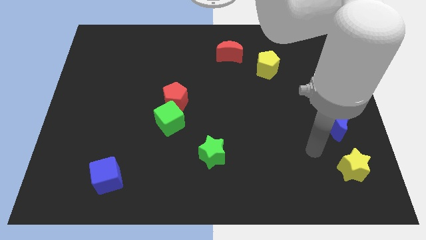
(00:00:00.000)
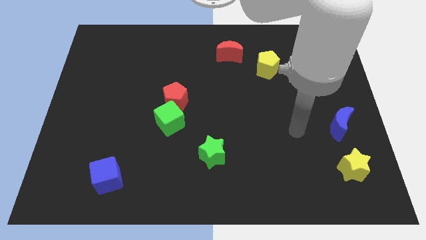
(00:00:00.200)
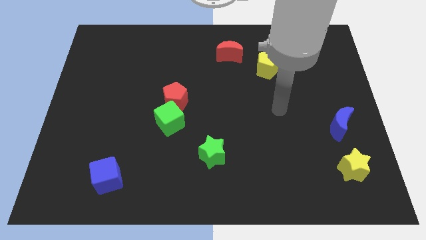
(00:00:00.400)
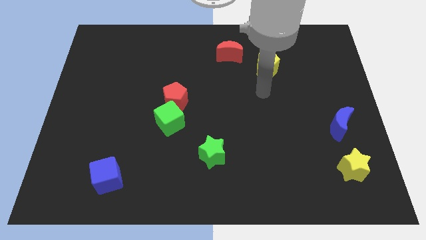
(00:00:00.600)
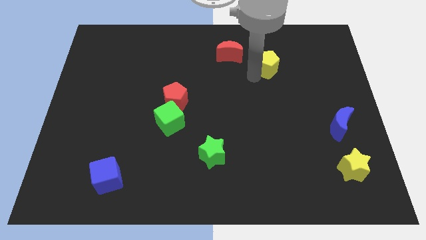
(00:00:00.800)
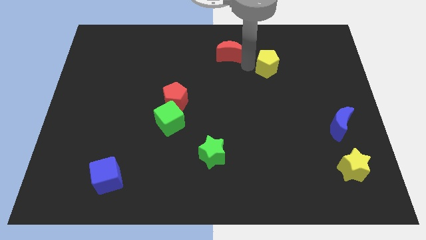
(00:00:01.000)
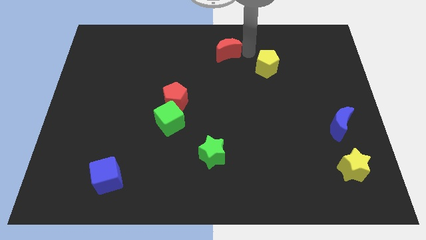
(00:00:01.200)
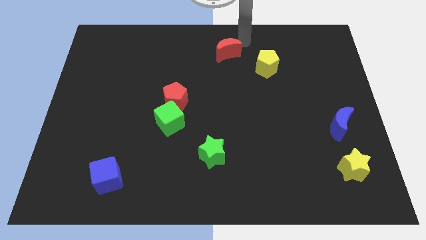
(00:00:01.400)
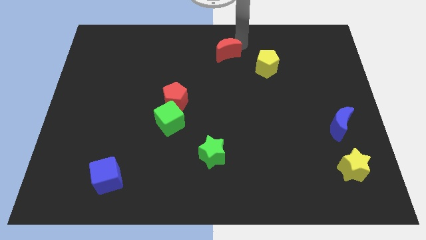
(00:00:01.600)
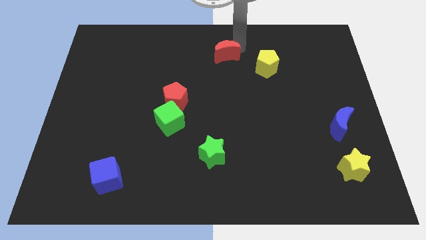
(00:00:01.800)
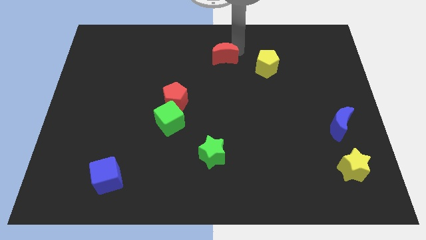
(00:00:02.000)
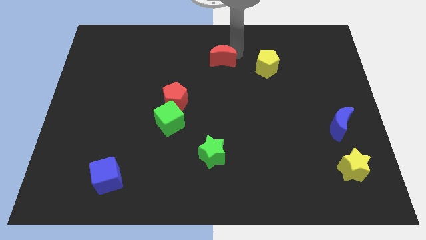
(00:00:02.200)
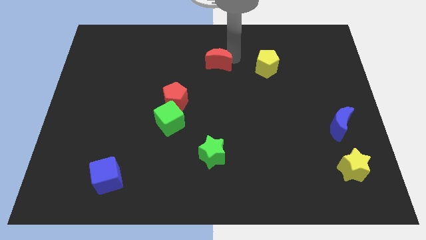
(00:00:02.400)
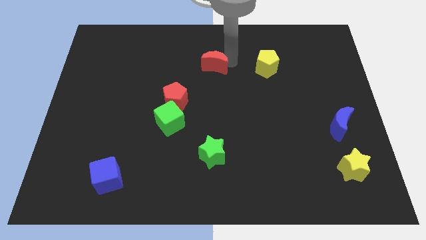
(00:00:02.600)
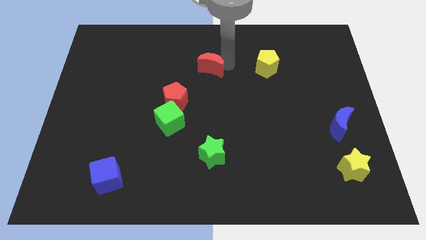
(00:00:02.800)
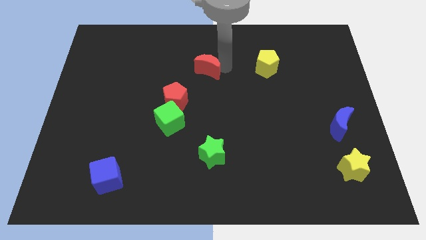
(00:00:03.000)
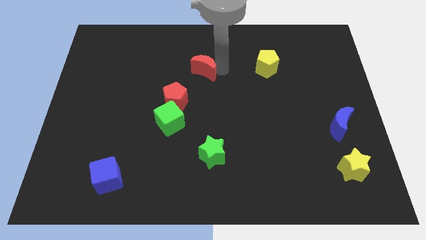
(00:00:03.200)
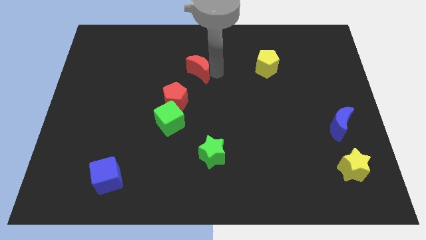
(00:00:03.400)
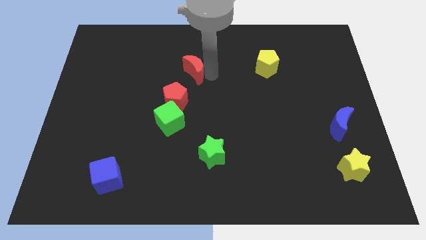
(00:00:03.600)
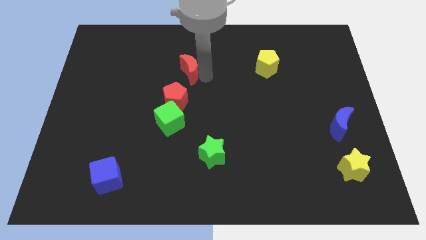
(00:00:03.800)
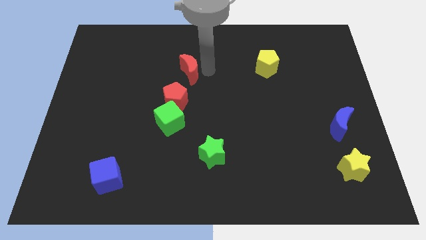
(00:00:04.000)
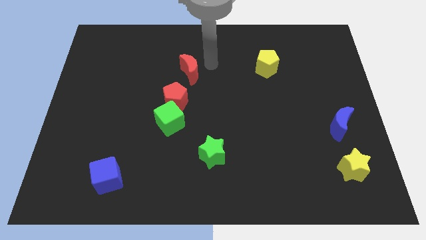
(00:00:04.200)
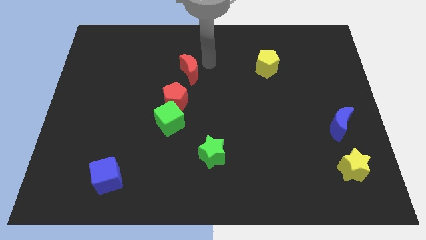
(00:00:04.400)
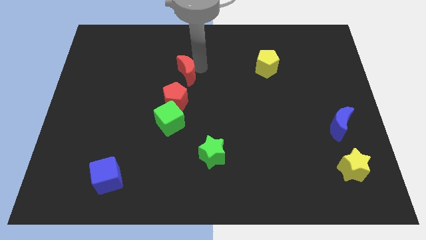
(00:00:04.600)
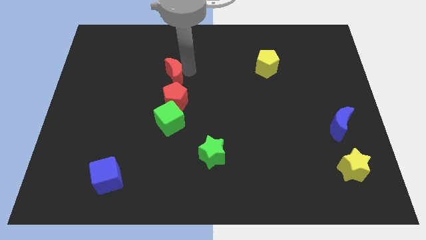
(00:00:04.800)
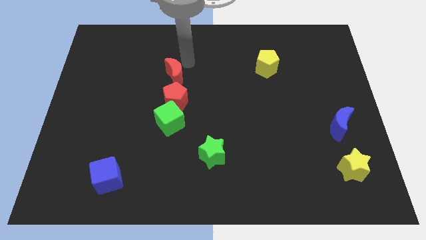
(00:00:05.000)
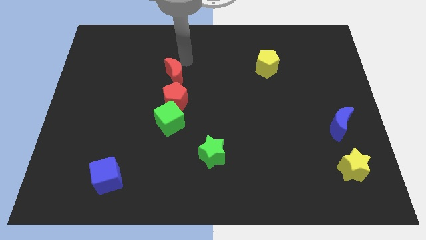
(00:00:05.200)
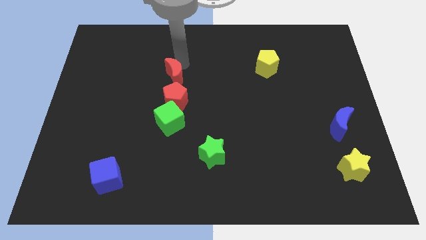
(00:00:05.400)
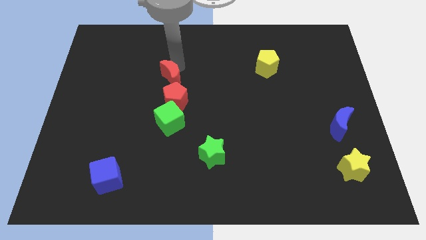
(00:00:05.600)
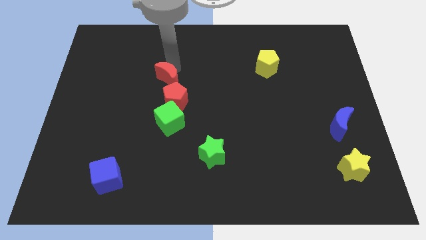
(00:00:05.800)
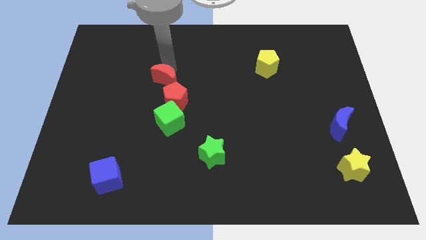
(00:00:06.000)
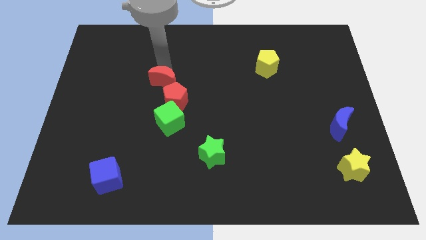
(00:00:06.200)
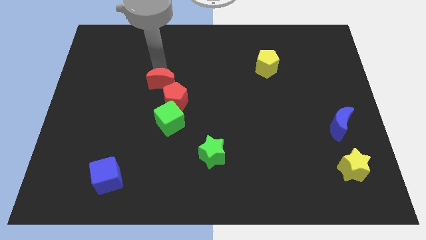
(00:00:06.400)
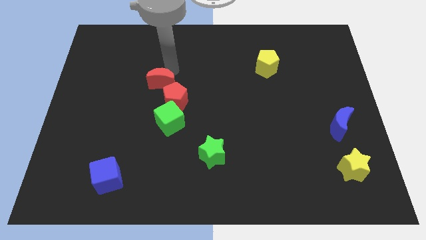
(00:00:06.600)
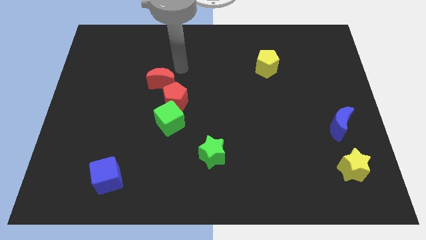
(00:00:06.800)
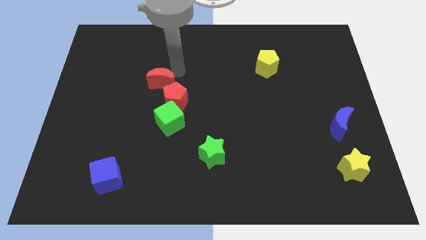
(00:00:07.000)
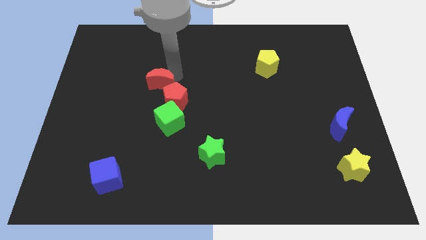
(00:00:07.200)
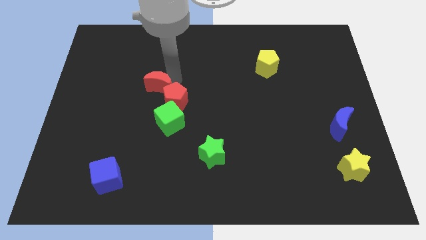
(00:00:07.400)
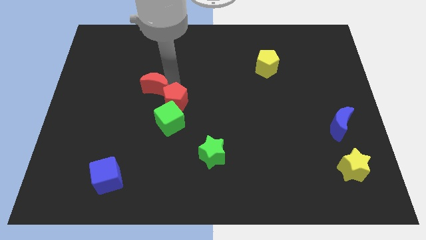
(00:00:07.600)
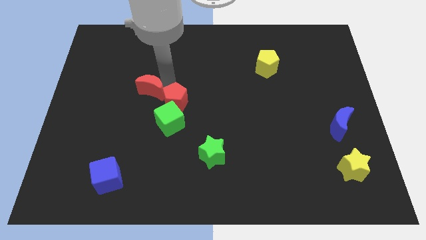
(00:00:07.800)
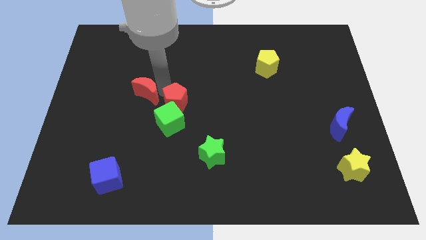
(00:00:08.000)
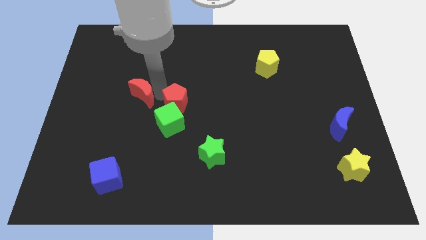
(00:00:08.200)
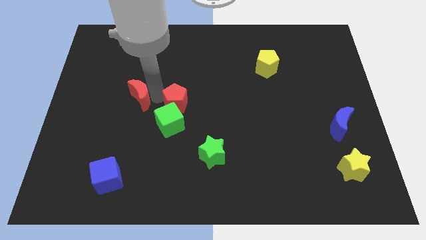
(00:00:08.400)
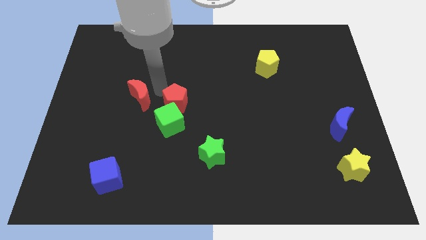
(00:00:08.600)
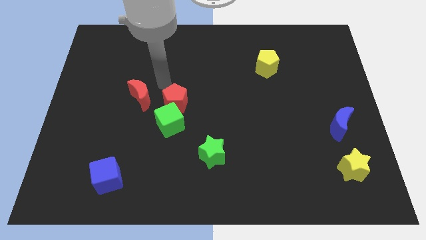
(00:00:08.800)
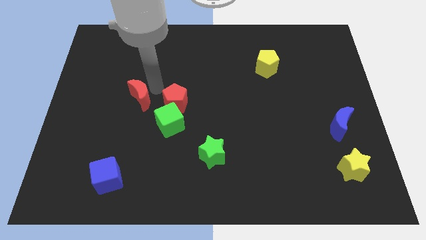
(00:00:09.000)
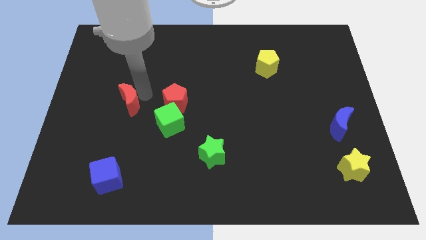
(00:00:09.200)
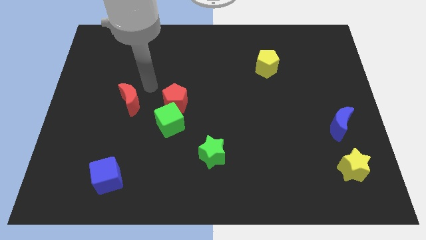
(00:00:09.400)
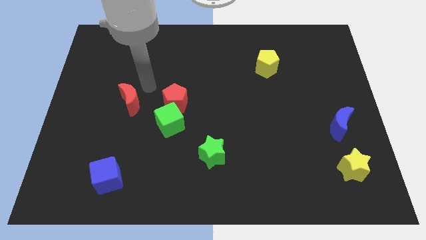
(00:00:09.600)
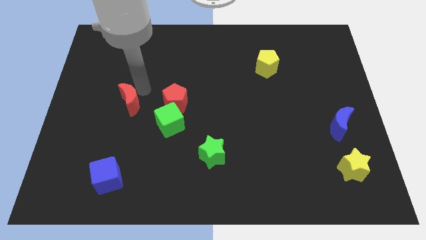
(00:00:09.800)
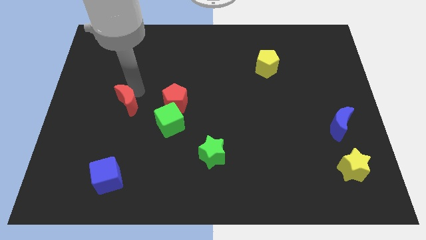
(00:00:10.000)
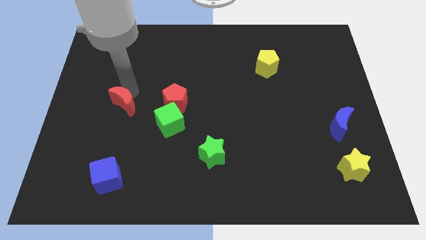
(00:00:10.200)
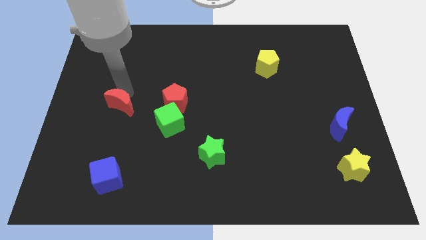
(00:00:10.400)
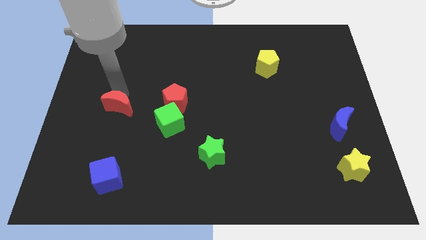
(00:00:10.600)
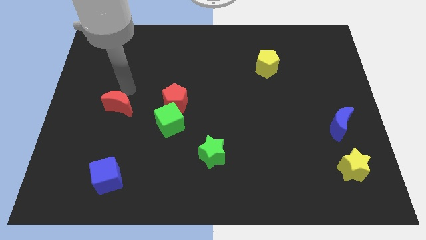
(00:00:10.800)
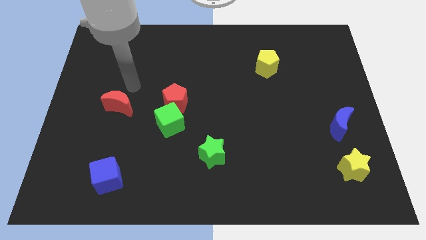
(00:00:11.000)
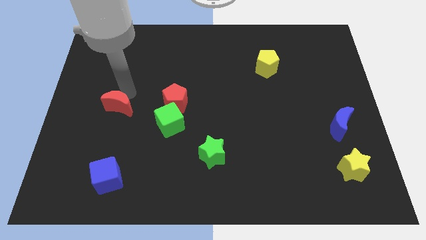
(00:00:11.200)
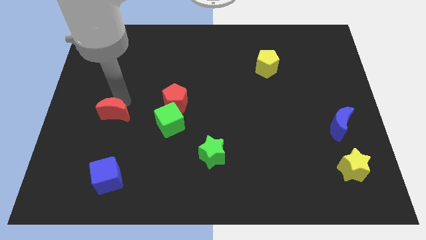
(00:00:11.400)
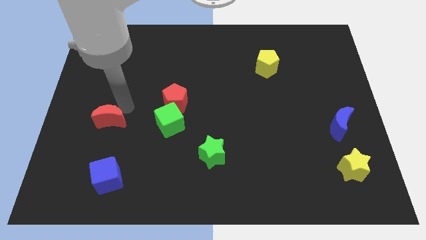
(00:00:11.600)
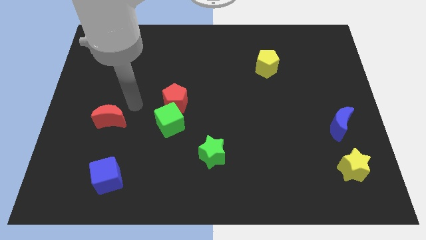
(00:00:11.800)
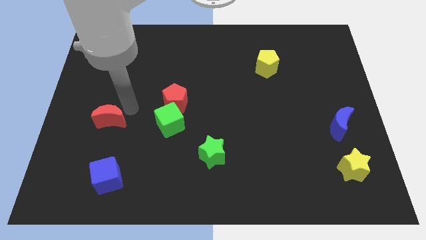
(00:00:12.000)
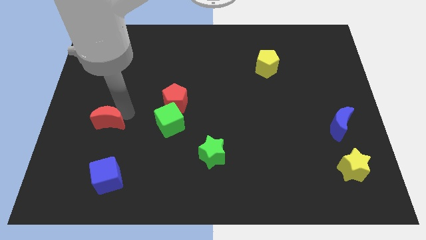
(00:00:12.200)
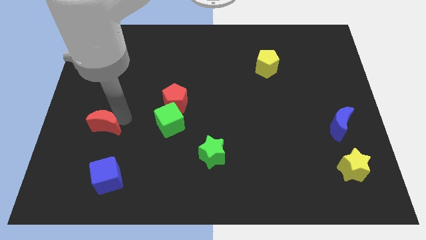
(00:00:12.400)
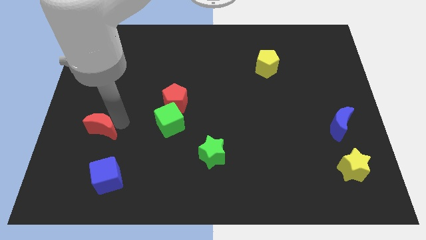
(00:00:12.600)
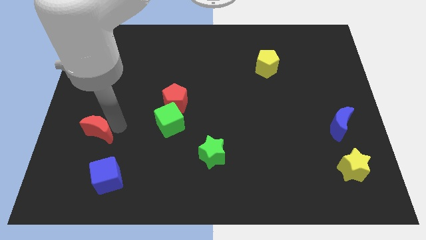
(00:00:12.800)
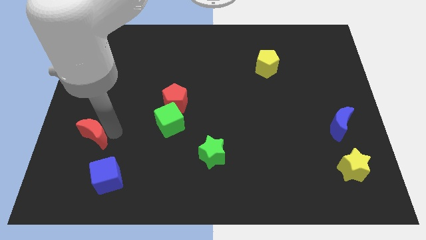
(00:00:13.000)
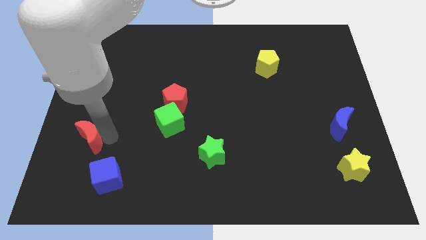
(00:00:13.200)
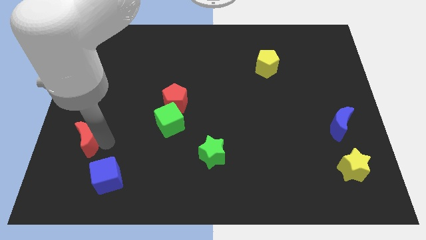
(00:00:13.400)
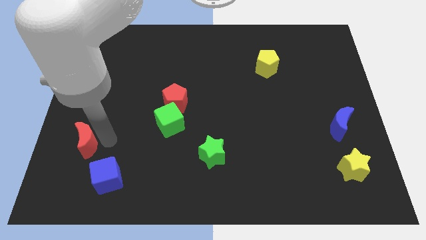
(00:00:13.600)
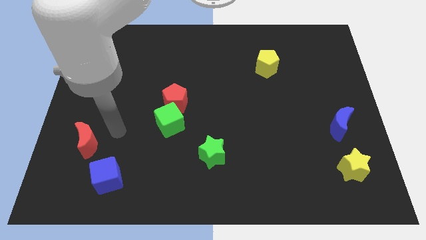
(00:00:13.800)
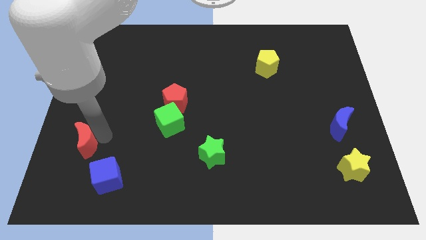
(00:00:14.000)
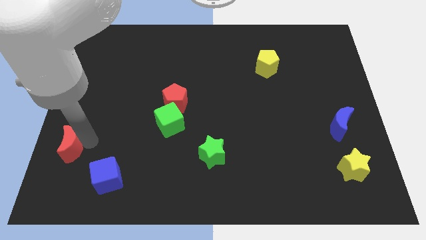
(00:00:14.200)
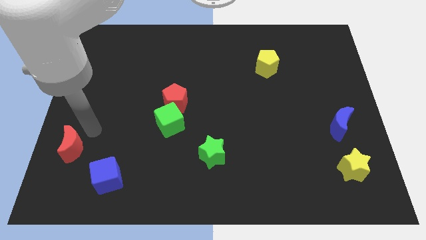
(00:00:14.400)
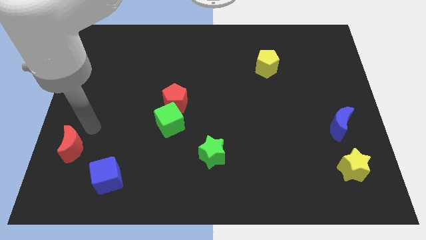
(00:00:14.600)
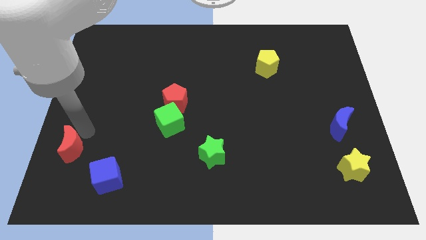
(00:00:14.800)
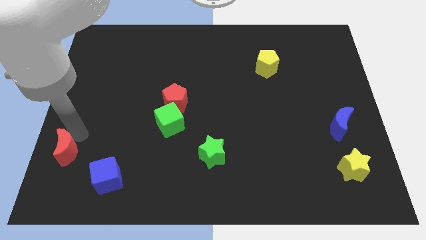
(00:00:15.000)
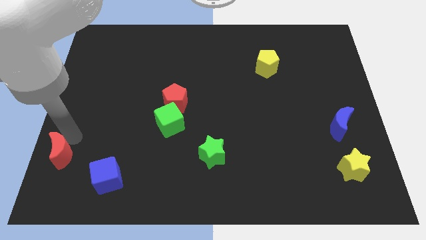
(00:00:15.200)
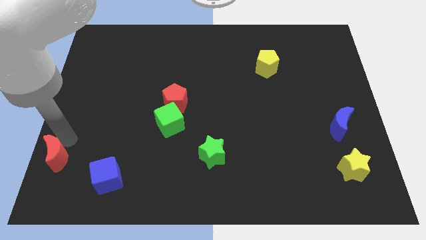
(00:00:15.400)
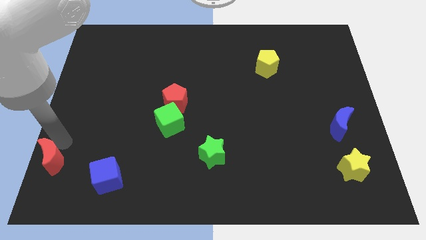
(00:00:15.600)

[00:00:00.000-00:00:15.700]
slide the red moon to the lower left corner
